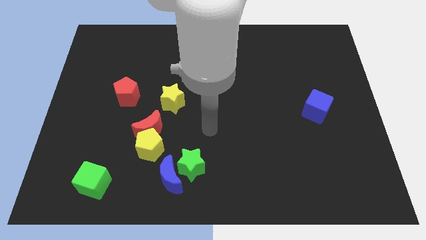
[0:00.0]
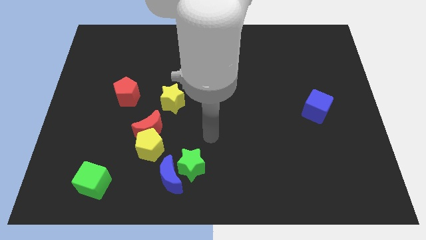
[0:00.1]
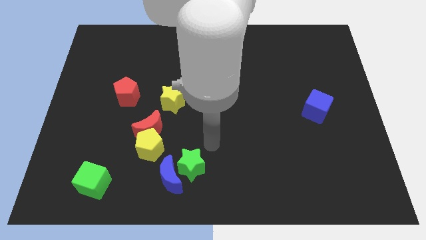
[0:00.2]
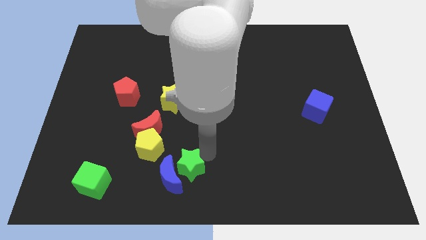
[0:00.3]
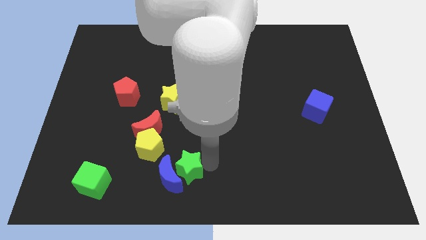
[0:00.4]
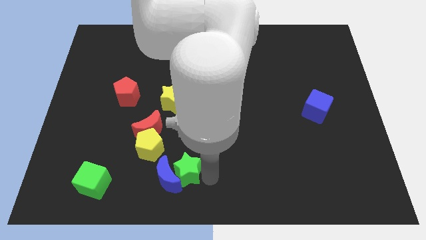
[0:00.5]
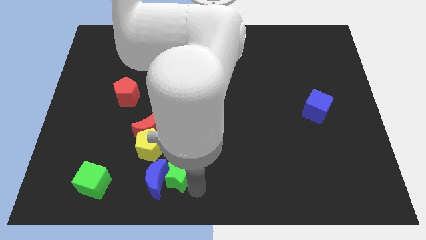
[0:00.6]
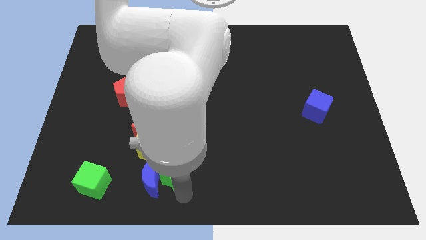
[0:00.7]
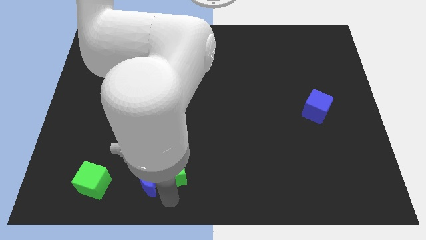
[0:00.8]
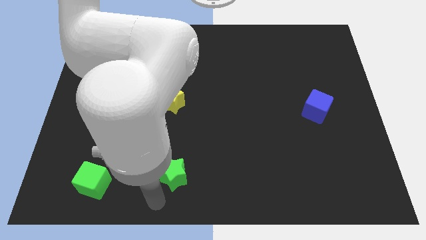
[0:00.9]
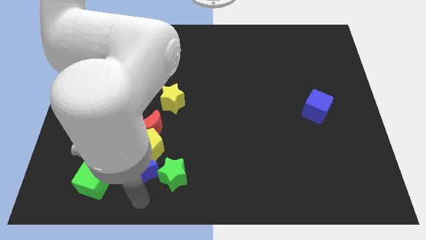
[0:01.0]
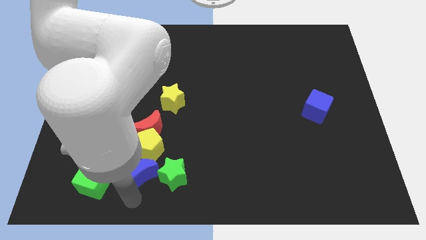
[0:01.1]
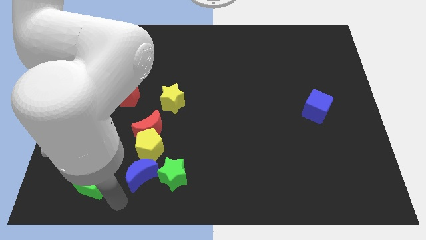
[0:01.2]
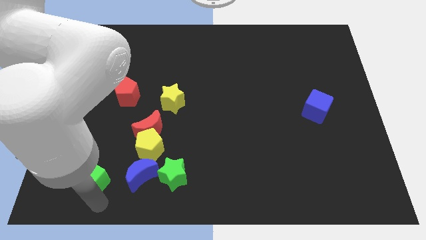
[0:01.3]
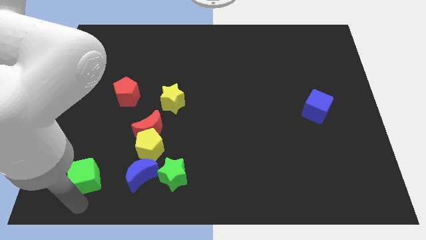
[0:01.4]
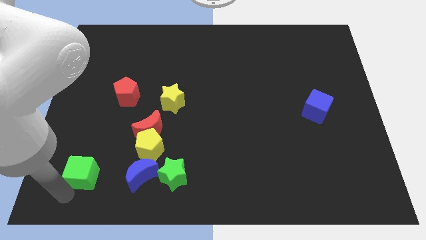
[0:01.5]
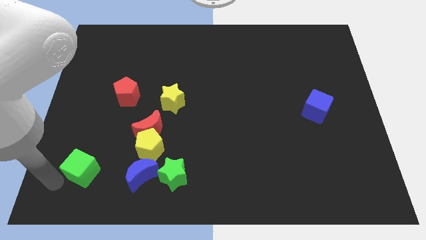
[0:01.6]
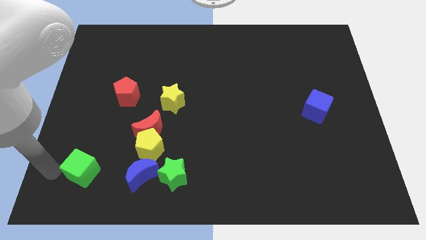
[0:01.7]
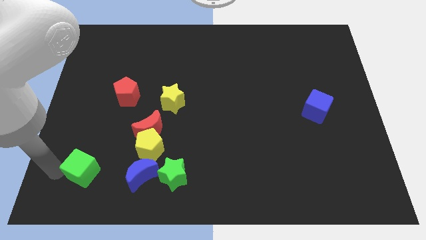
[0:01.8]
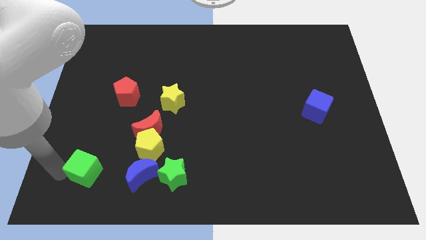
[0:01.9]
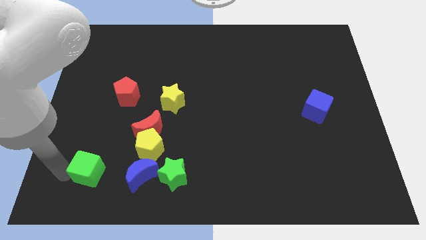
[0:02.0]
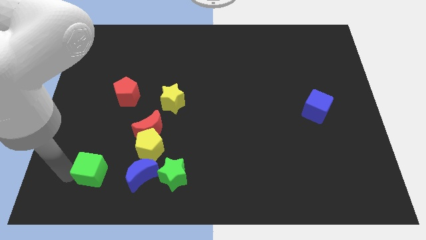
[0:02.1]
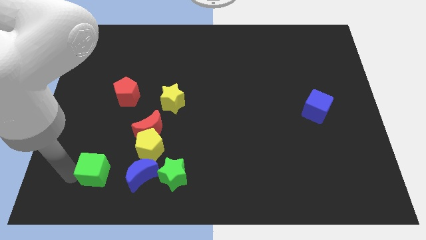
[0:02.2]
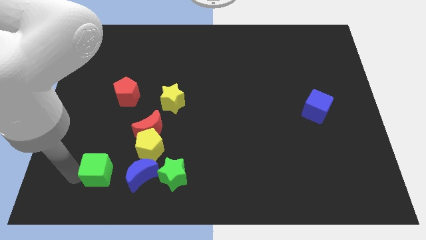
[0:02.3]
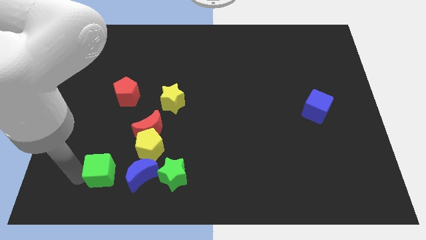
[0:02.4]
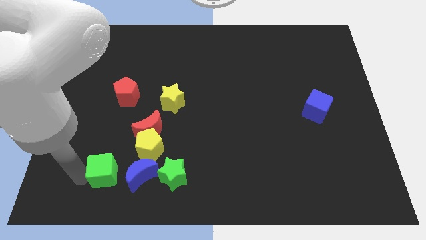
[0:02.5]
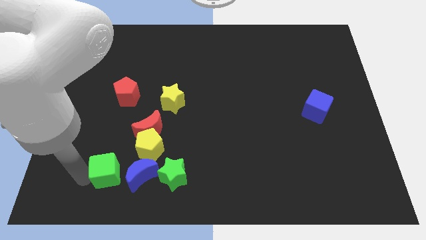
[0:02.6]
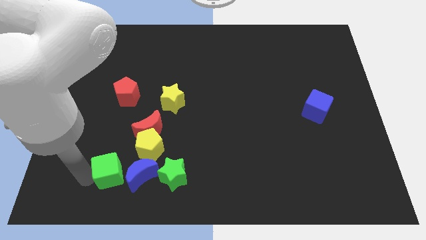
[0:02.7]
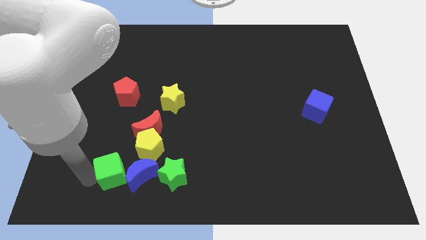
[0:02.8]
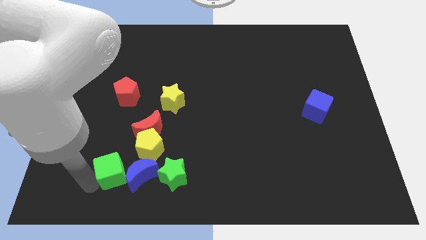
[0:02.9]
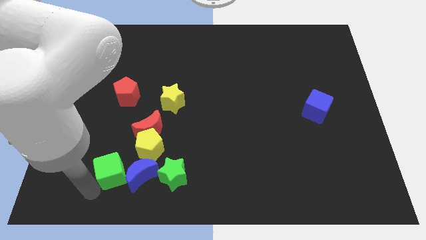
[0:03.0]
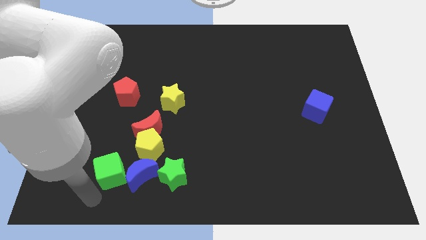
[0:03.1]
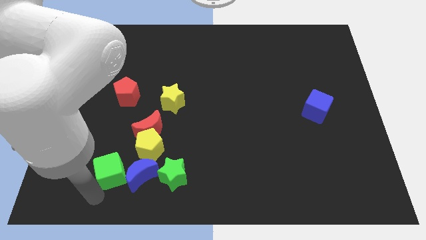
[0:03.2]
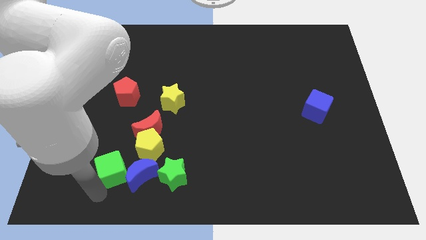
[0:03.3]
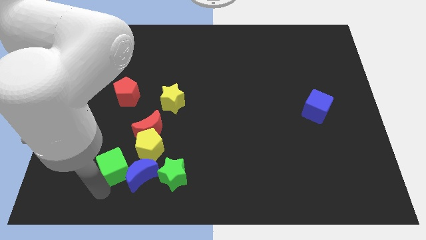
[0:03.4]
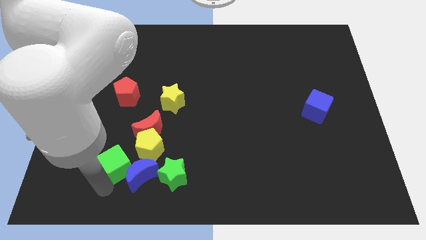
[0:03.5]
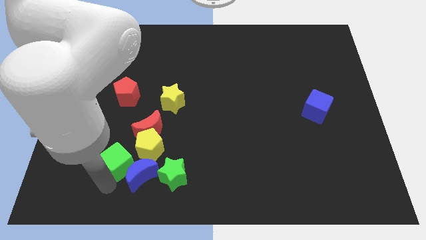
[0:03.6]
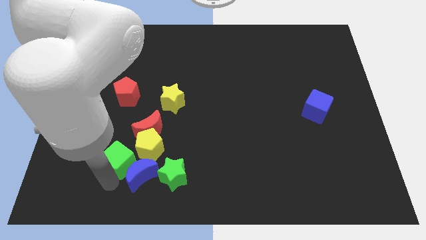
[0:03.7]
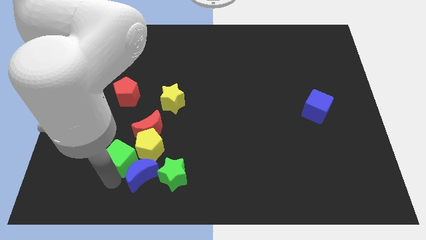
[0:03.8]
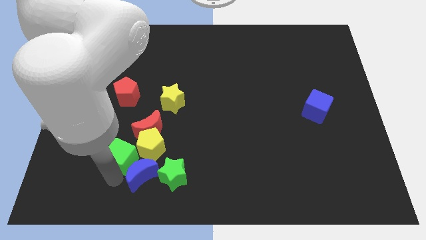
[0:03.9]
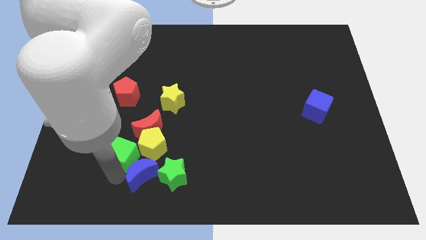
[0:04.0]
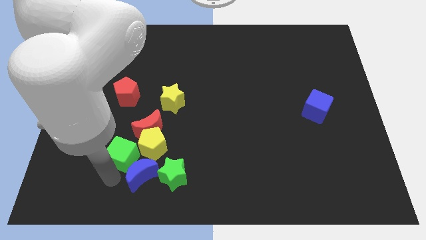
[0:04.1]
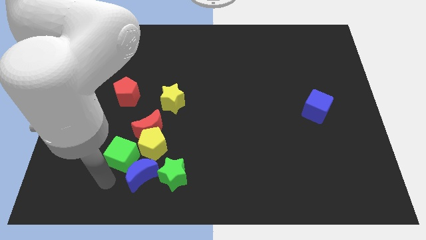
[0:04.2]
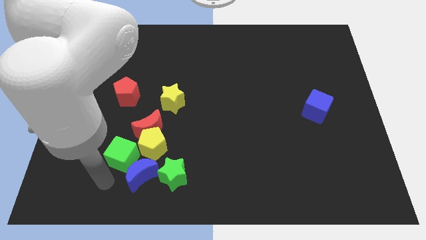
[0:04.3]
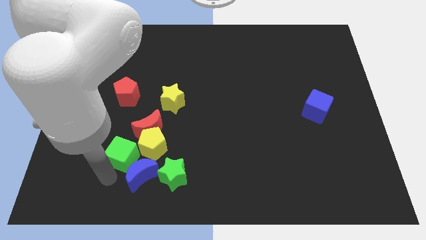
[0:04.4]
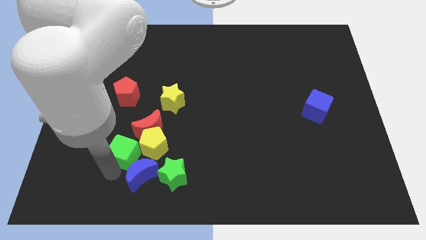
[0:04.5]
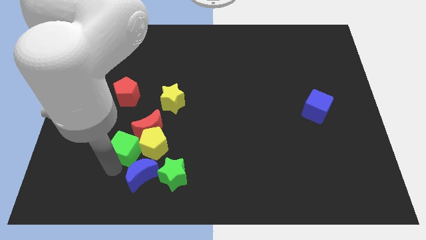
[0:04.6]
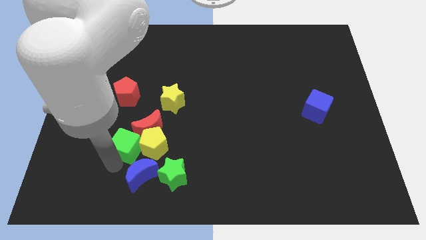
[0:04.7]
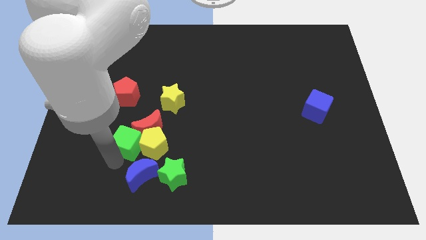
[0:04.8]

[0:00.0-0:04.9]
put the green cube towards the red moon

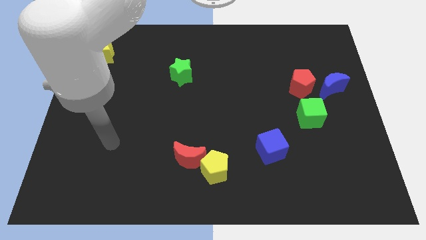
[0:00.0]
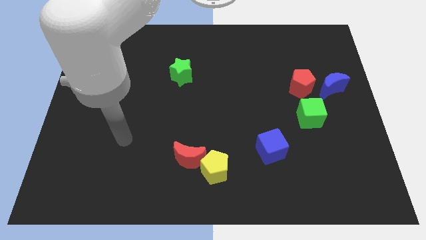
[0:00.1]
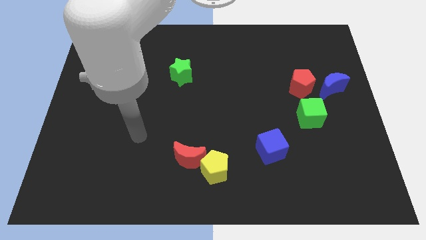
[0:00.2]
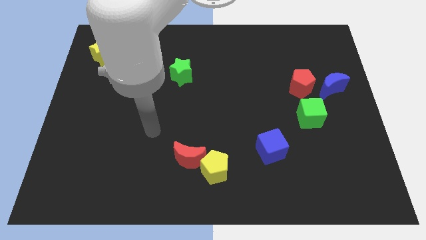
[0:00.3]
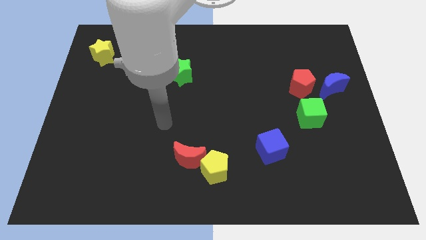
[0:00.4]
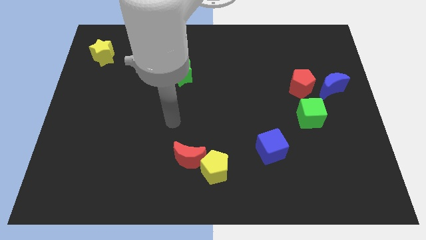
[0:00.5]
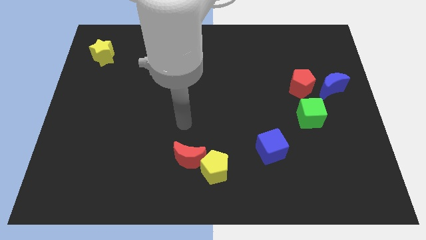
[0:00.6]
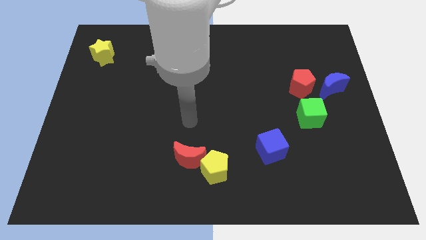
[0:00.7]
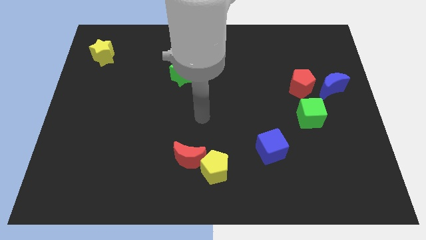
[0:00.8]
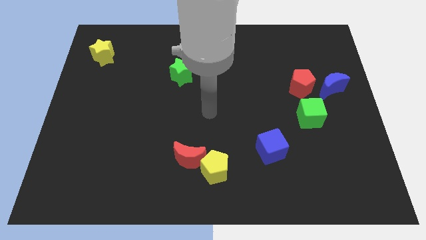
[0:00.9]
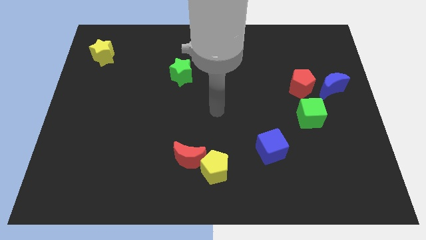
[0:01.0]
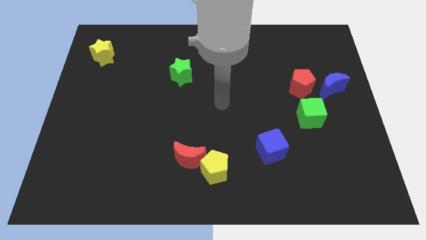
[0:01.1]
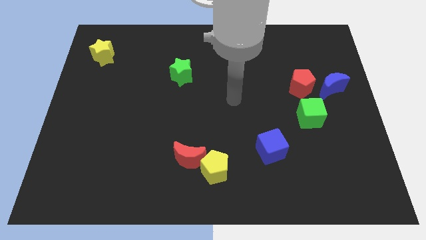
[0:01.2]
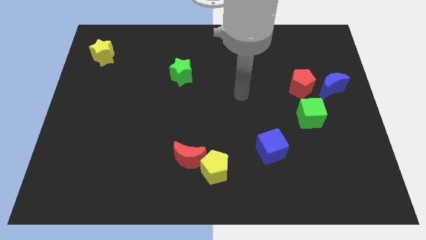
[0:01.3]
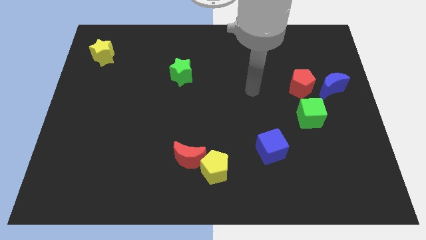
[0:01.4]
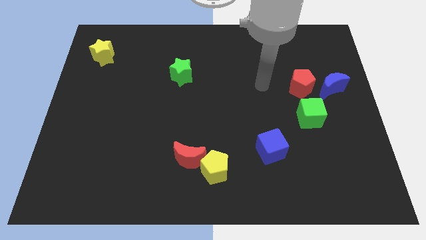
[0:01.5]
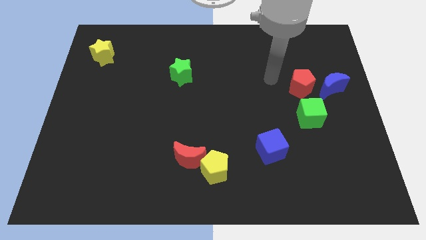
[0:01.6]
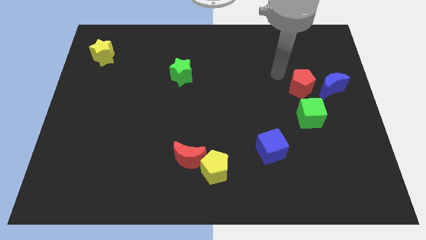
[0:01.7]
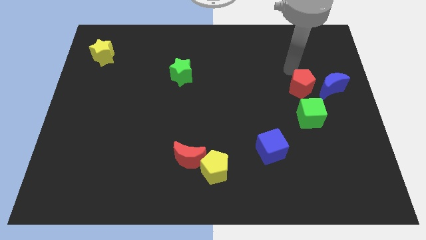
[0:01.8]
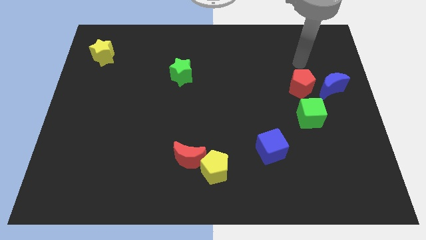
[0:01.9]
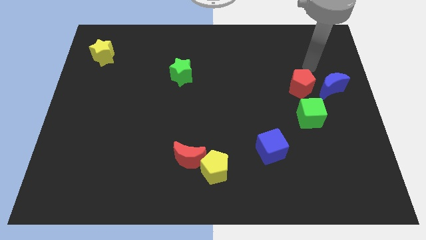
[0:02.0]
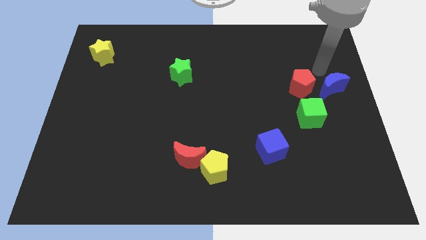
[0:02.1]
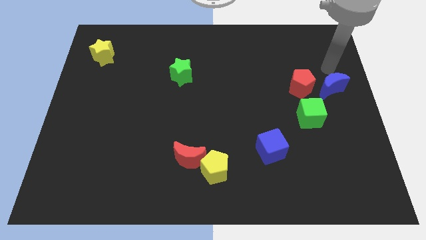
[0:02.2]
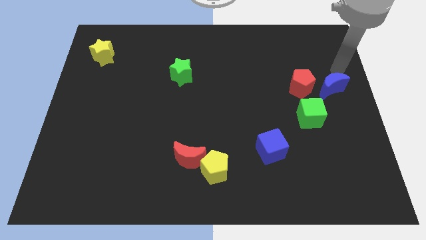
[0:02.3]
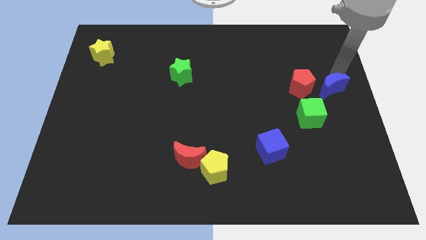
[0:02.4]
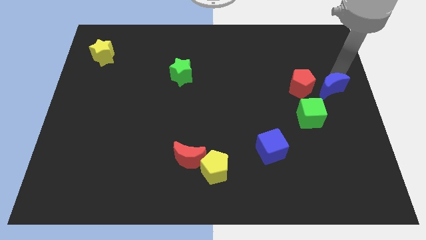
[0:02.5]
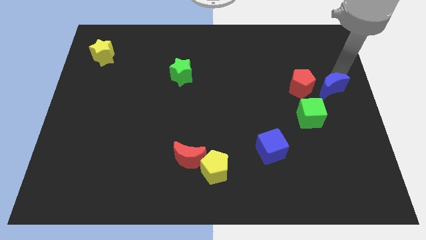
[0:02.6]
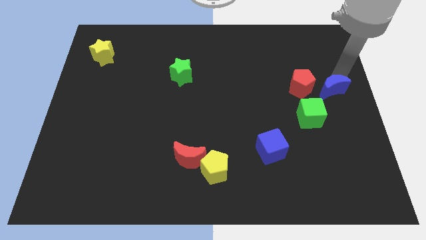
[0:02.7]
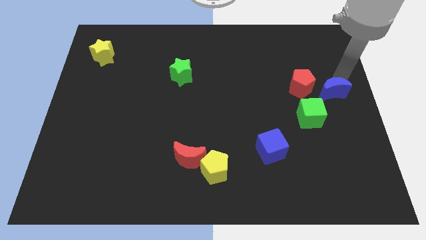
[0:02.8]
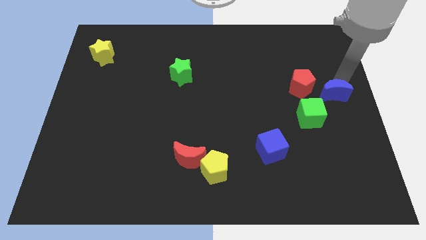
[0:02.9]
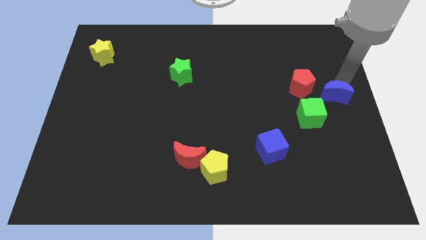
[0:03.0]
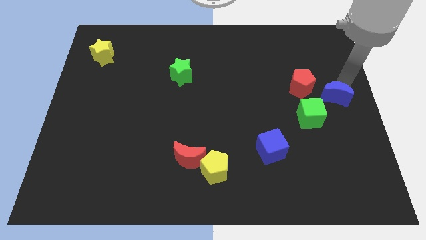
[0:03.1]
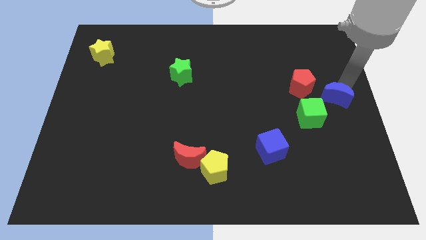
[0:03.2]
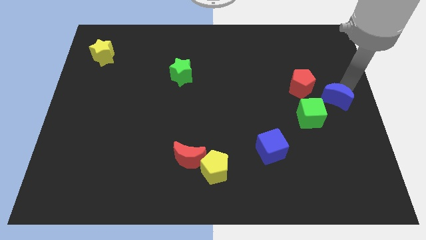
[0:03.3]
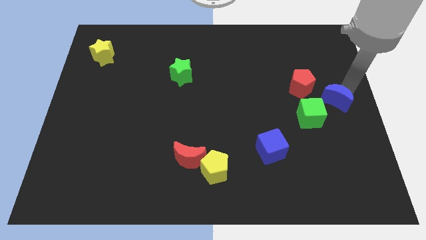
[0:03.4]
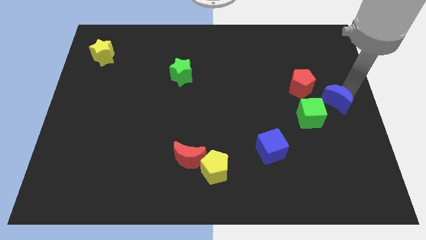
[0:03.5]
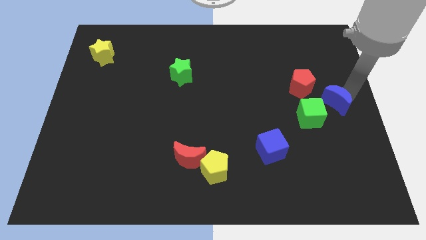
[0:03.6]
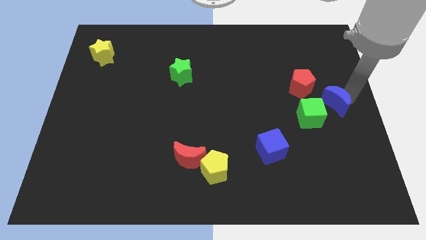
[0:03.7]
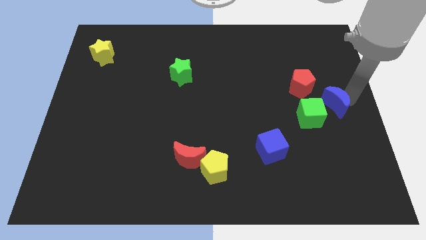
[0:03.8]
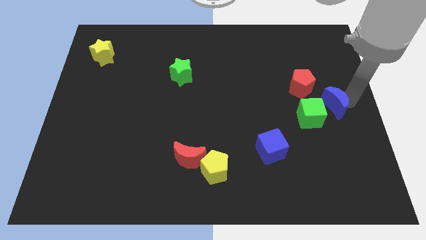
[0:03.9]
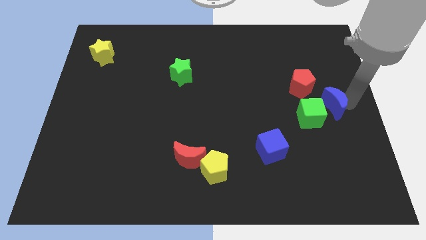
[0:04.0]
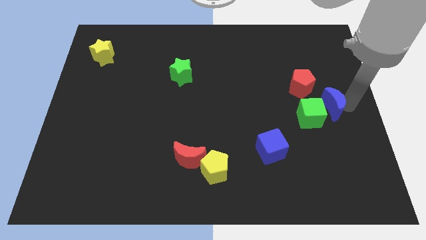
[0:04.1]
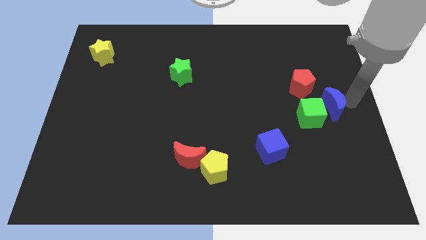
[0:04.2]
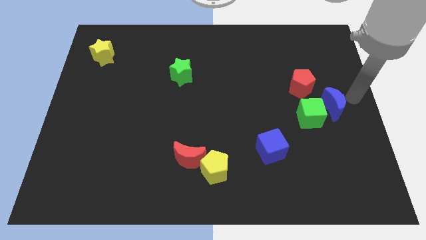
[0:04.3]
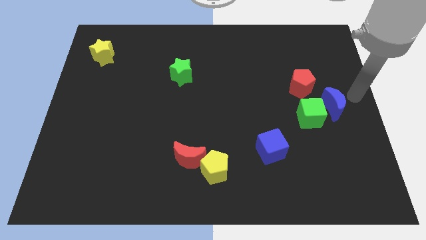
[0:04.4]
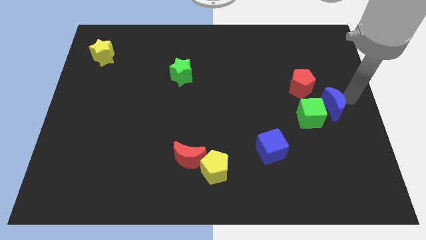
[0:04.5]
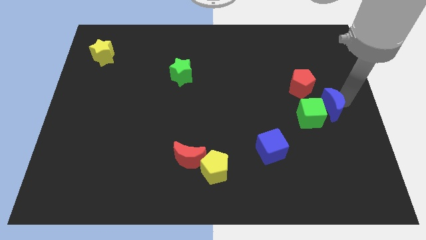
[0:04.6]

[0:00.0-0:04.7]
move the blue moon next to the green cube
